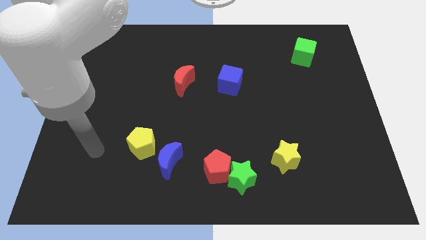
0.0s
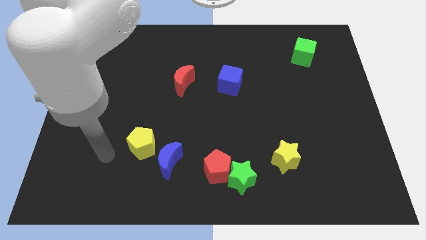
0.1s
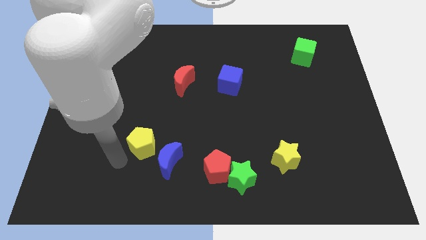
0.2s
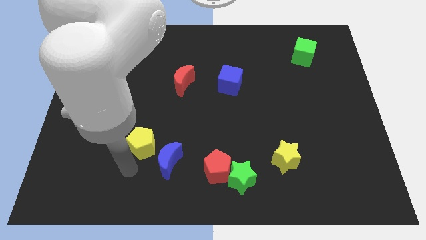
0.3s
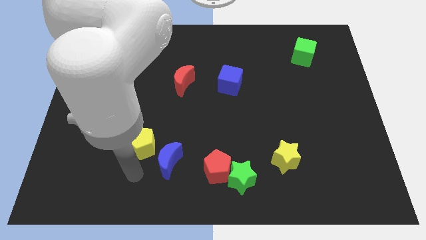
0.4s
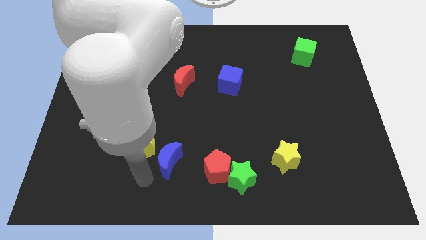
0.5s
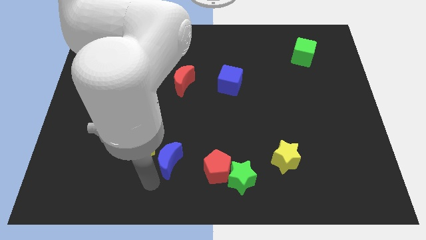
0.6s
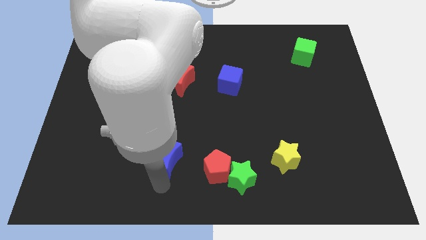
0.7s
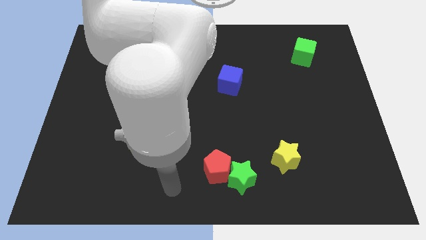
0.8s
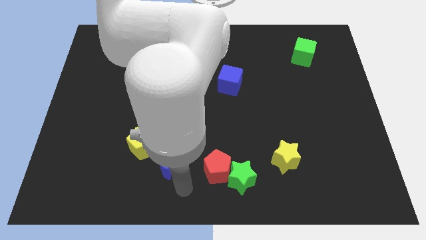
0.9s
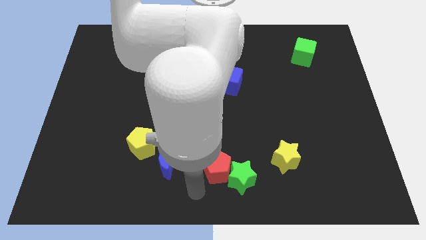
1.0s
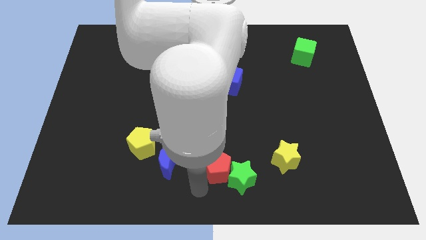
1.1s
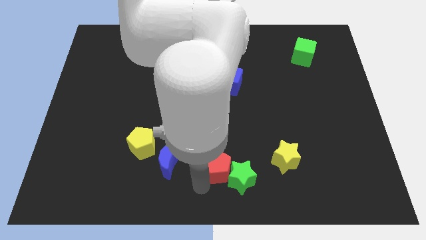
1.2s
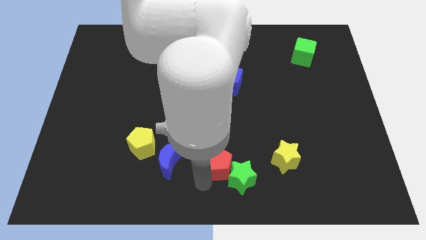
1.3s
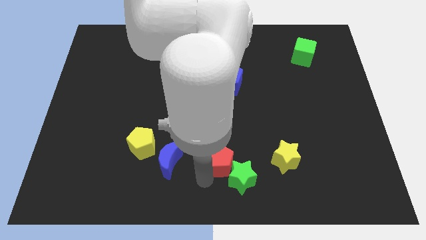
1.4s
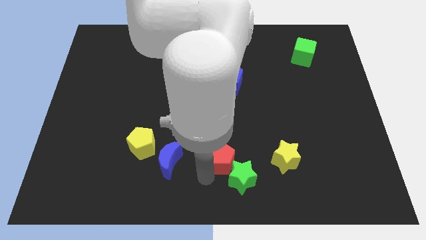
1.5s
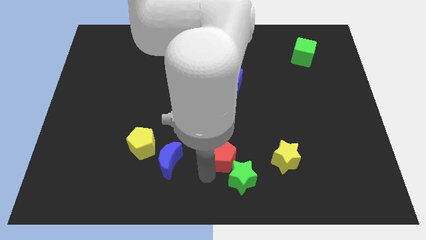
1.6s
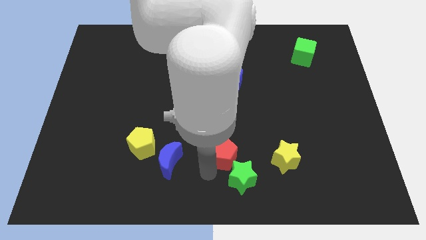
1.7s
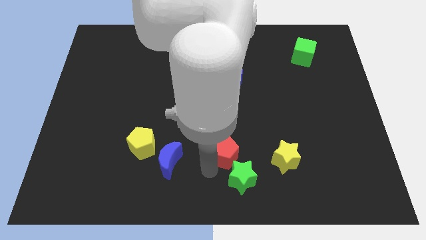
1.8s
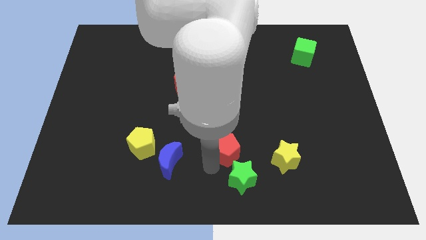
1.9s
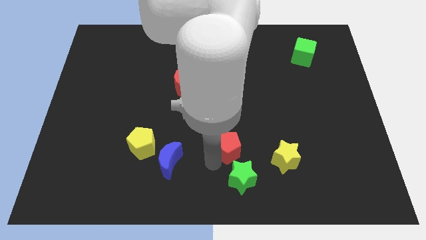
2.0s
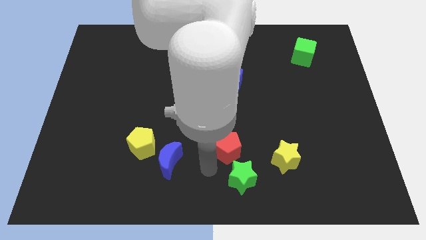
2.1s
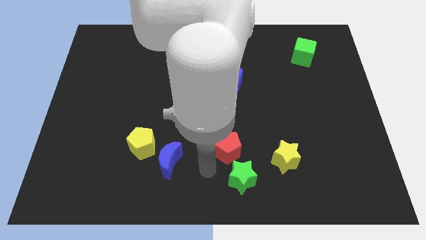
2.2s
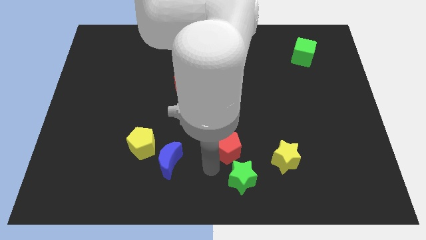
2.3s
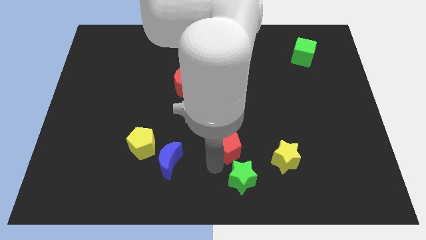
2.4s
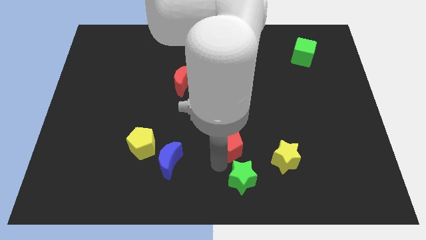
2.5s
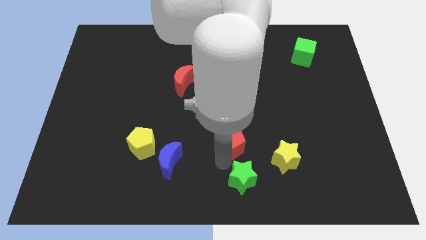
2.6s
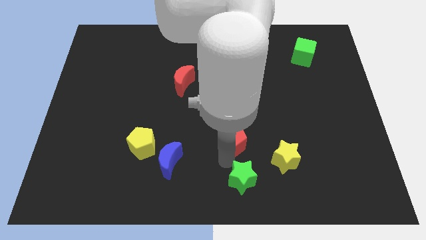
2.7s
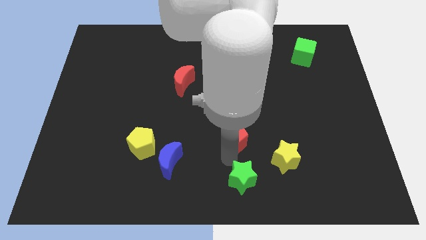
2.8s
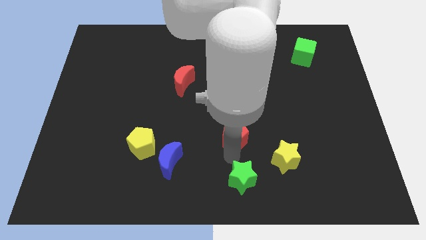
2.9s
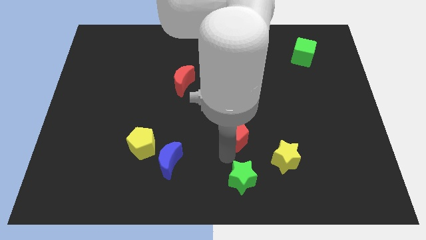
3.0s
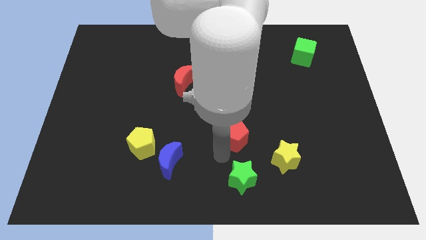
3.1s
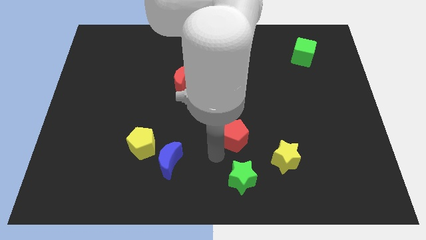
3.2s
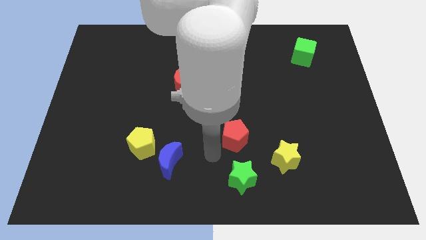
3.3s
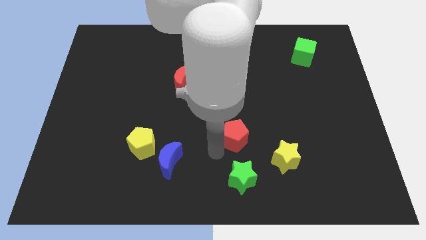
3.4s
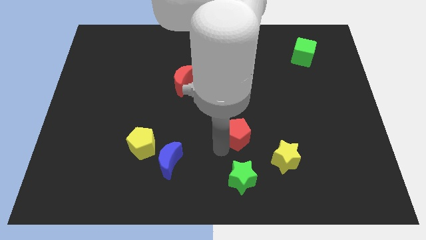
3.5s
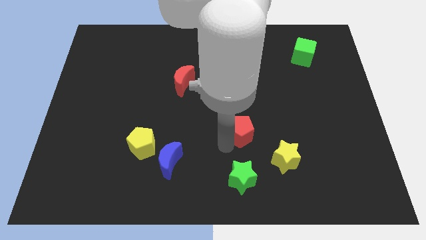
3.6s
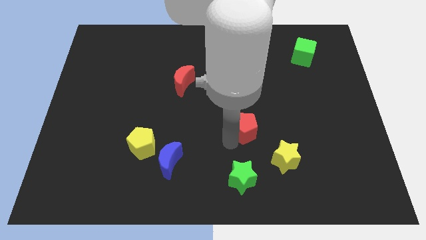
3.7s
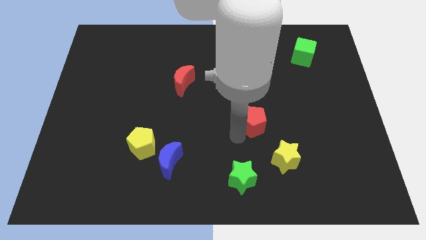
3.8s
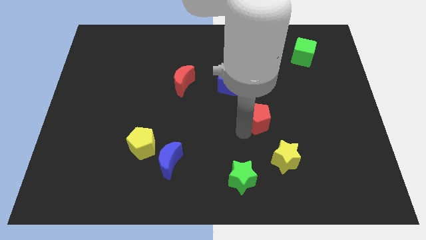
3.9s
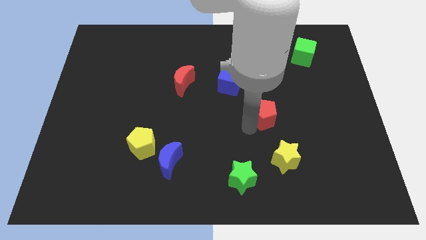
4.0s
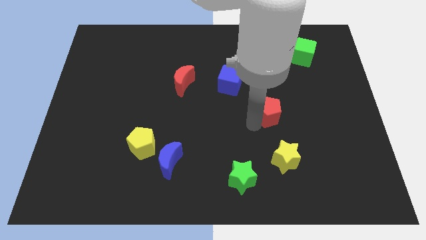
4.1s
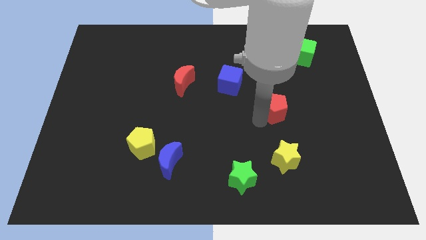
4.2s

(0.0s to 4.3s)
slide the red pentagon diagonally upwards and right

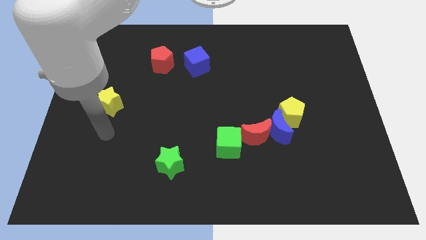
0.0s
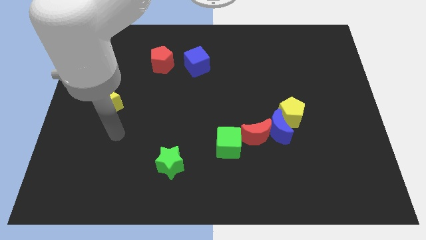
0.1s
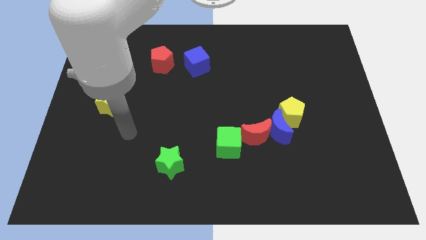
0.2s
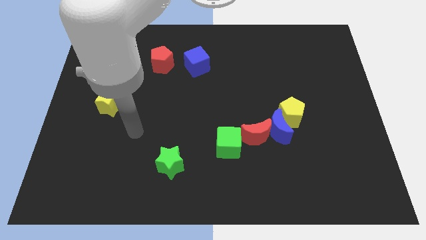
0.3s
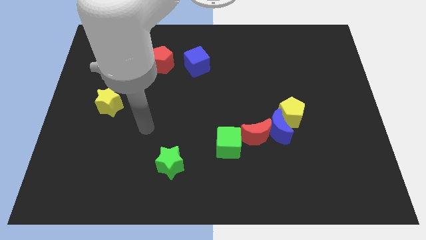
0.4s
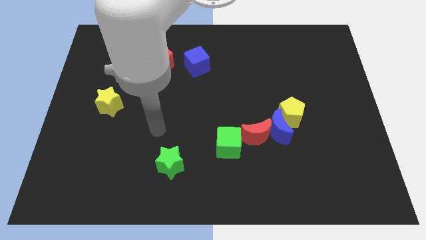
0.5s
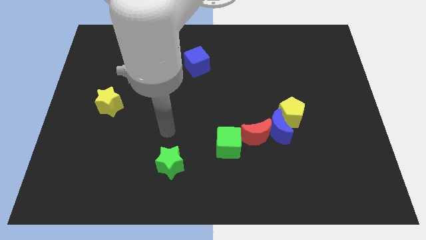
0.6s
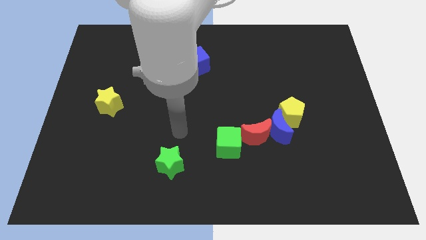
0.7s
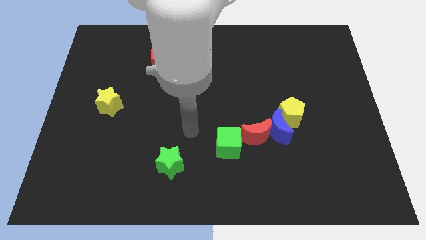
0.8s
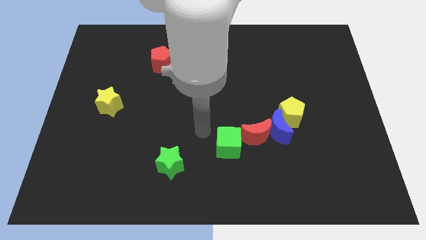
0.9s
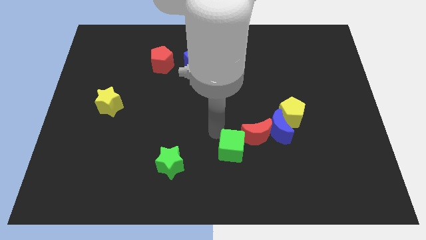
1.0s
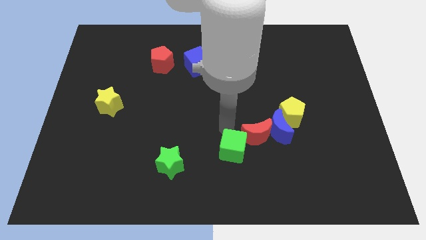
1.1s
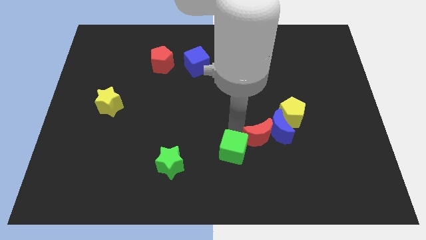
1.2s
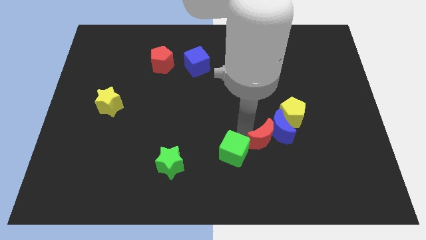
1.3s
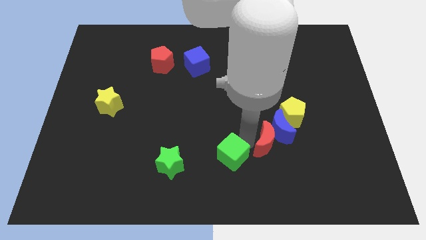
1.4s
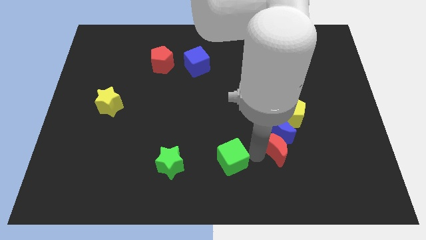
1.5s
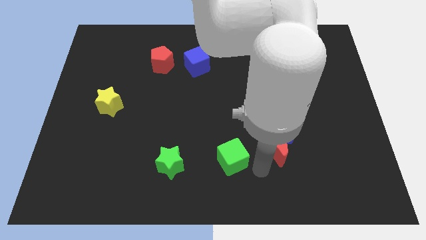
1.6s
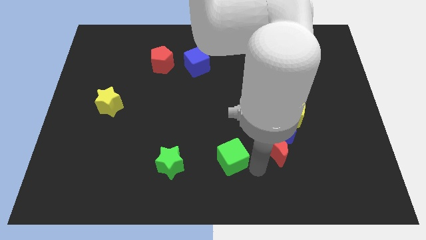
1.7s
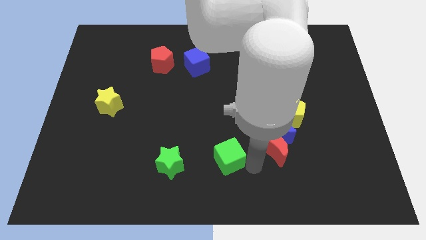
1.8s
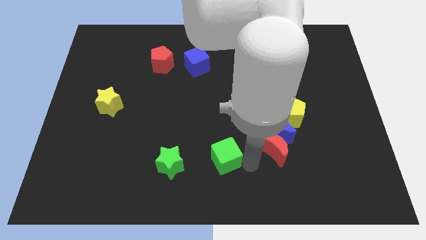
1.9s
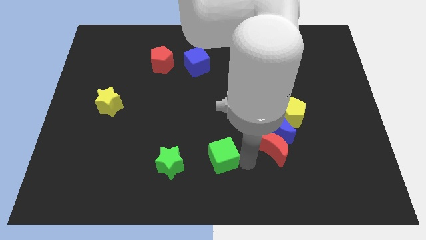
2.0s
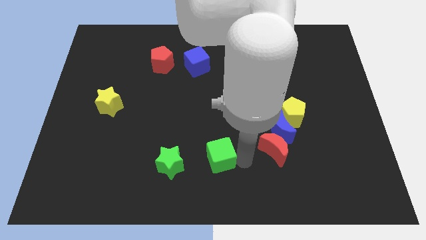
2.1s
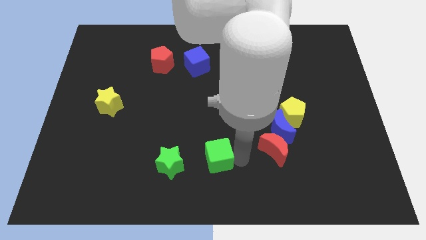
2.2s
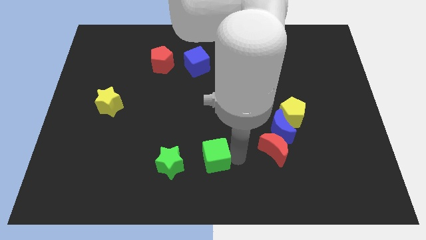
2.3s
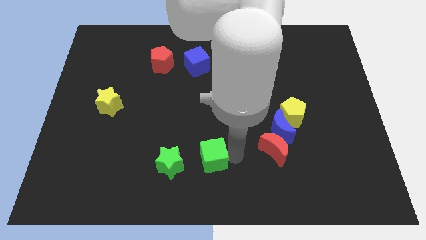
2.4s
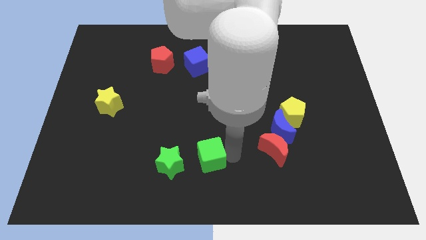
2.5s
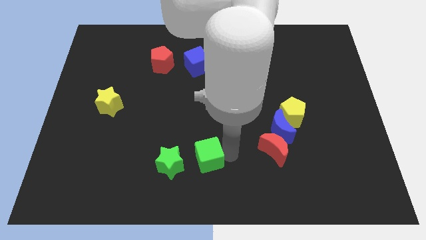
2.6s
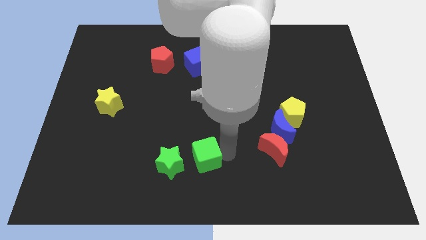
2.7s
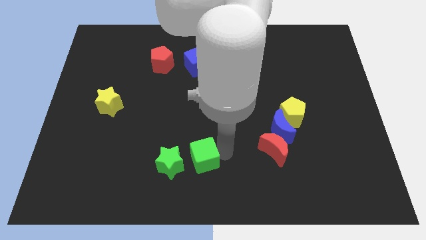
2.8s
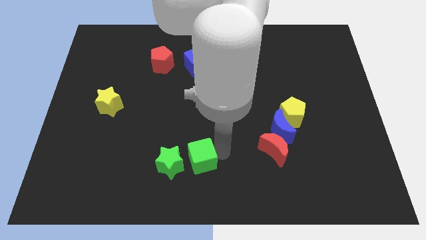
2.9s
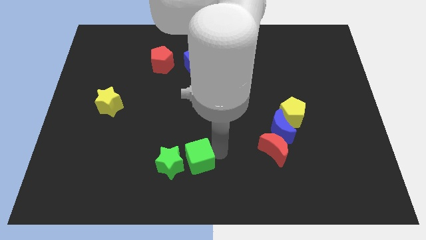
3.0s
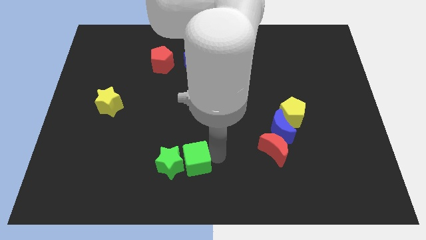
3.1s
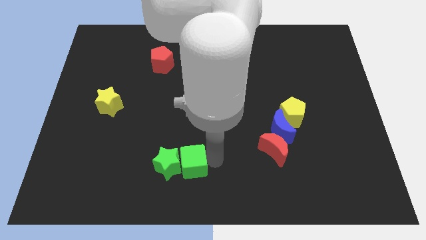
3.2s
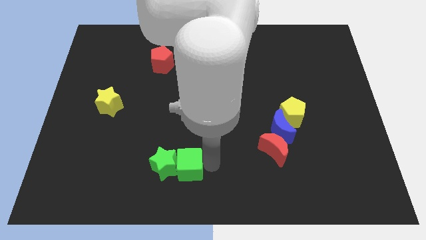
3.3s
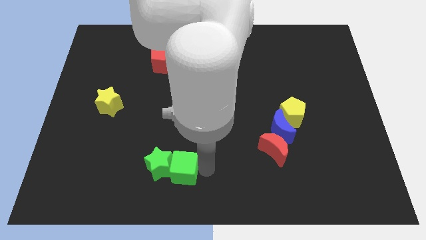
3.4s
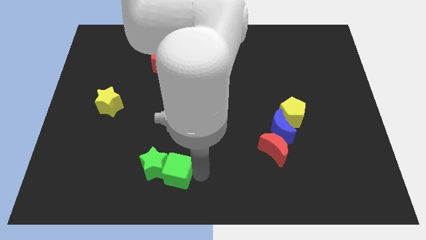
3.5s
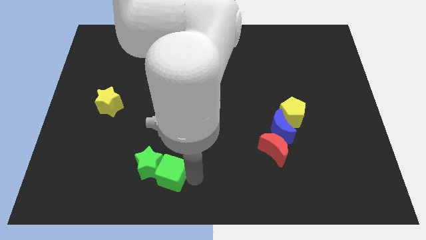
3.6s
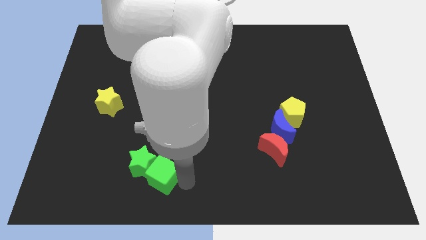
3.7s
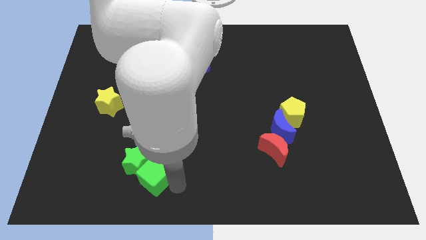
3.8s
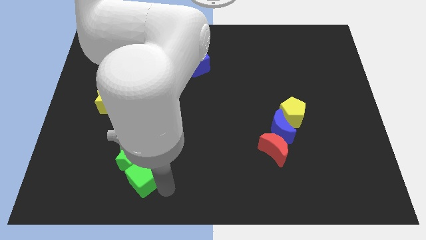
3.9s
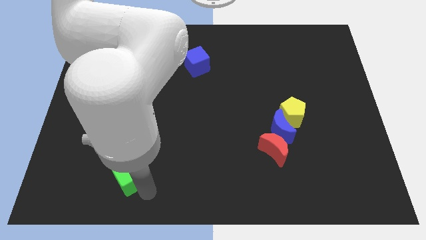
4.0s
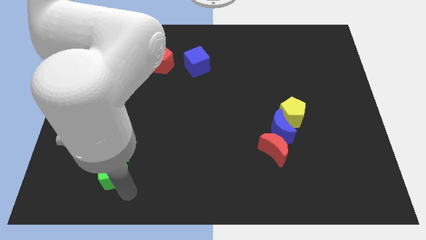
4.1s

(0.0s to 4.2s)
move the green cube to the left
